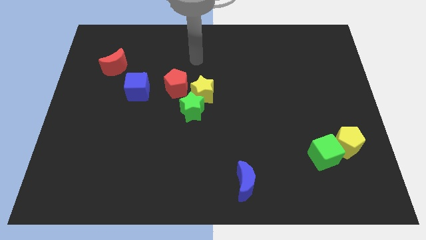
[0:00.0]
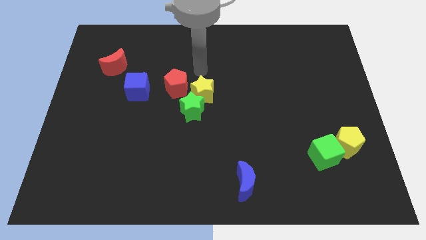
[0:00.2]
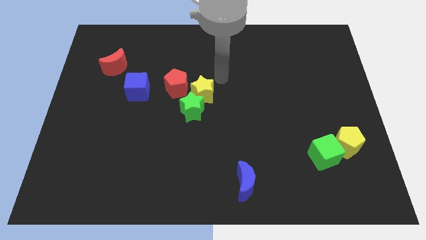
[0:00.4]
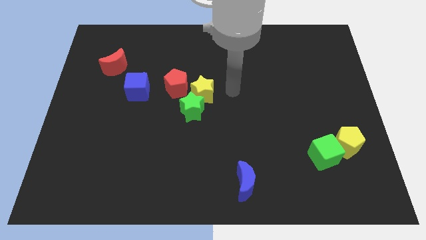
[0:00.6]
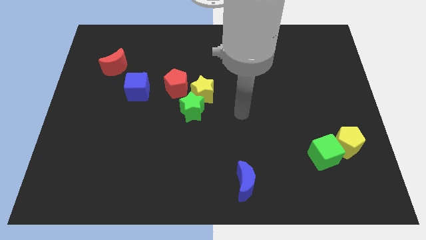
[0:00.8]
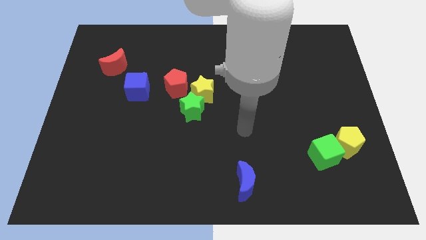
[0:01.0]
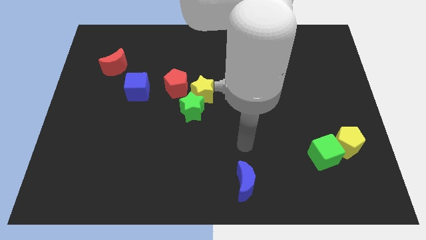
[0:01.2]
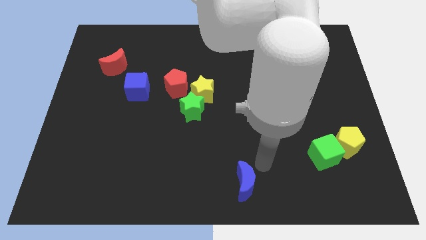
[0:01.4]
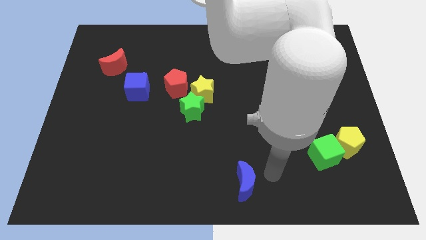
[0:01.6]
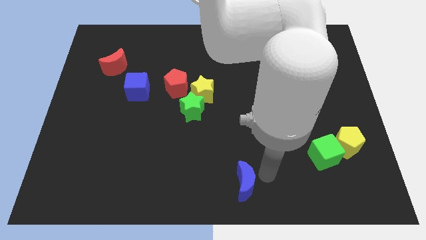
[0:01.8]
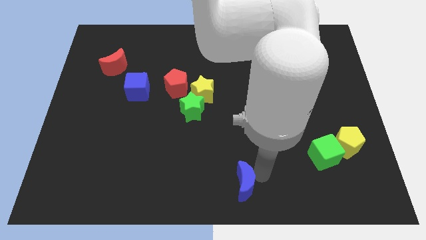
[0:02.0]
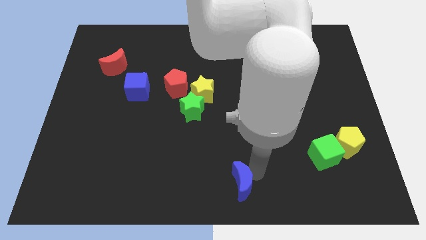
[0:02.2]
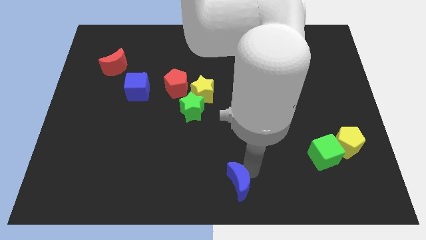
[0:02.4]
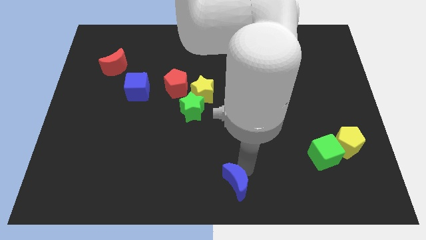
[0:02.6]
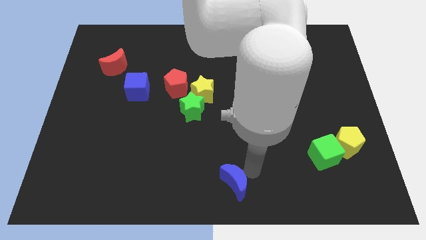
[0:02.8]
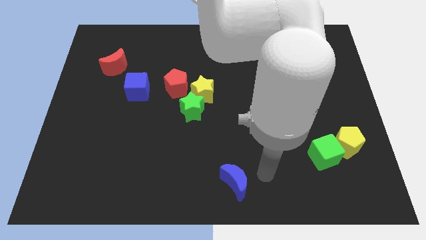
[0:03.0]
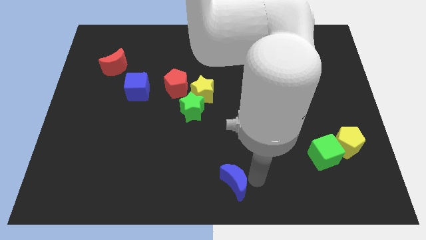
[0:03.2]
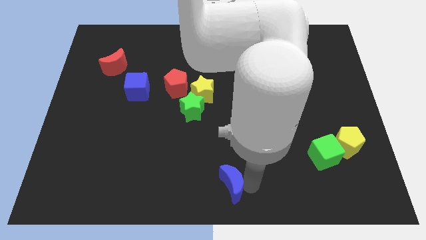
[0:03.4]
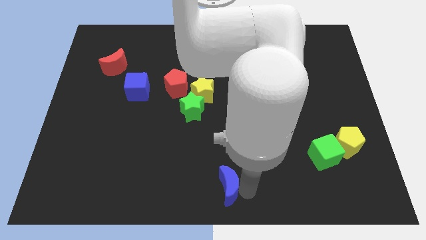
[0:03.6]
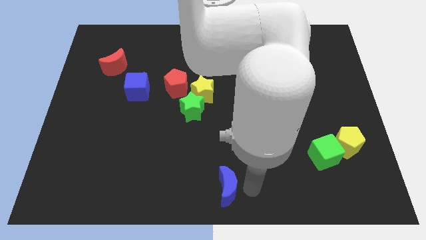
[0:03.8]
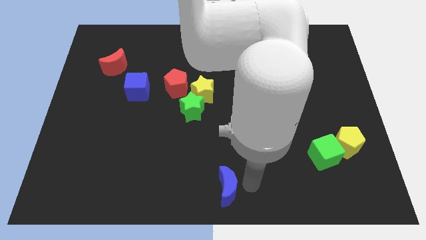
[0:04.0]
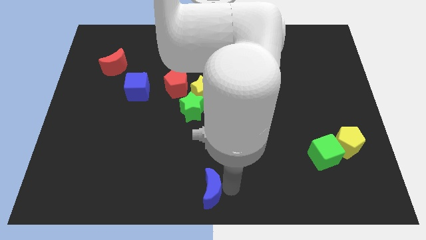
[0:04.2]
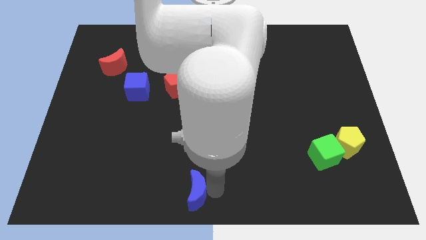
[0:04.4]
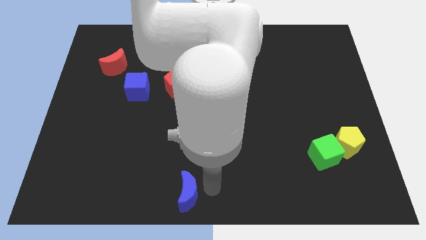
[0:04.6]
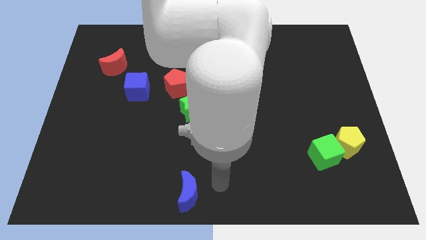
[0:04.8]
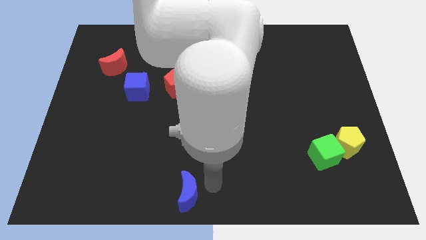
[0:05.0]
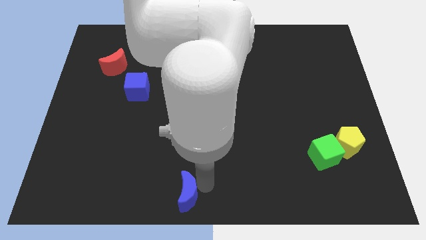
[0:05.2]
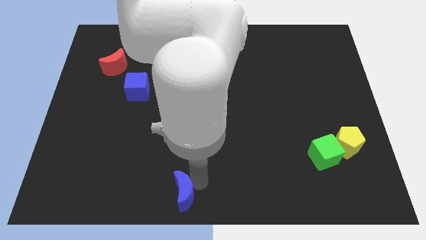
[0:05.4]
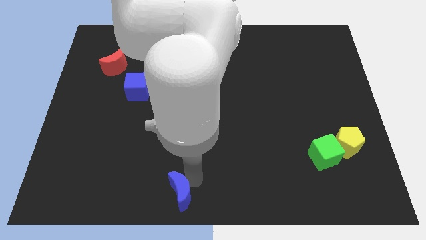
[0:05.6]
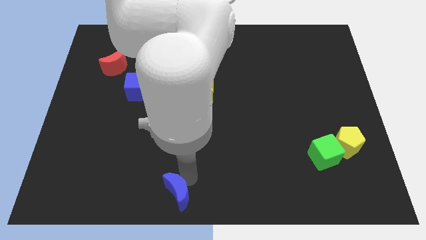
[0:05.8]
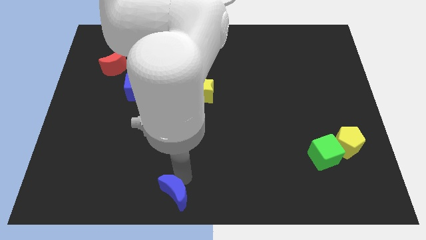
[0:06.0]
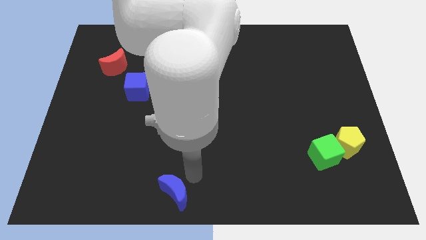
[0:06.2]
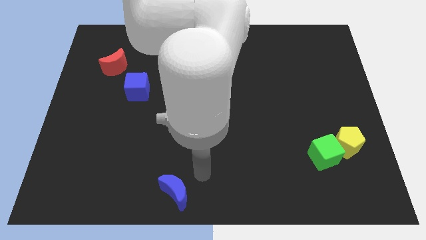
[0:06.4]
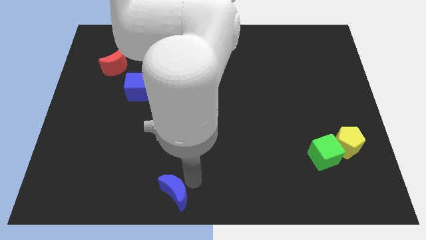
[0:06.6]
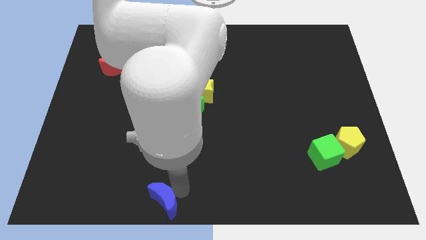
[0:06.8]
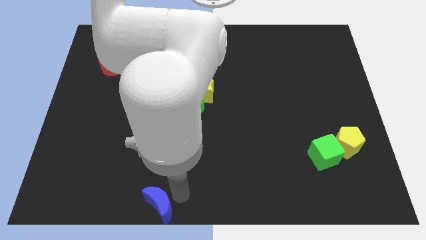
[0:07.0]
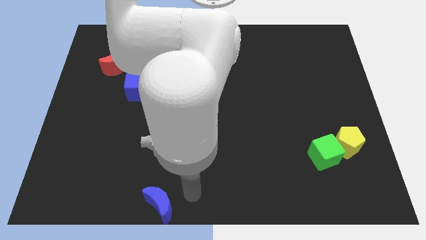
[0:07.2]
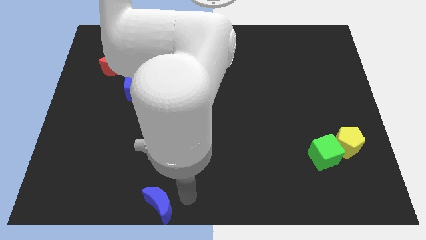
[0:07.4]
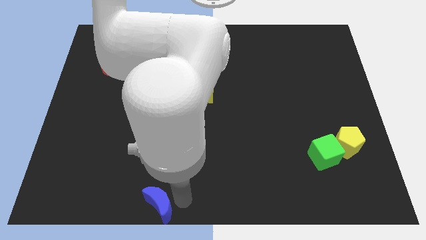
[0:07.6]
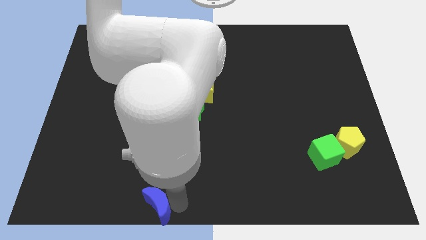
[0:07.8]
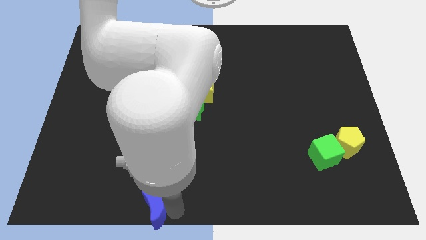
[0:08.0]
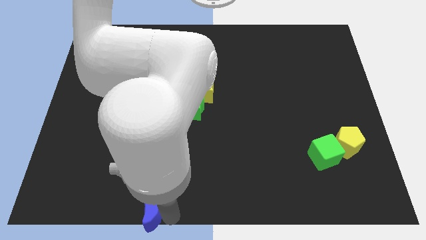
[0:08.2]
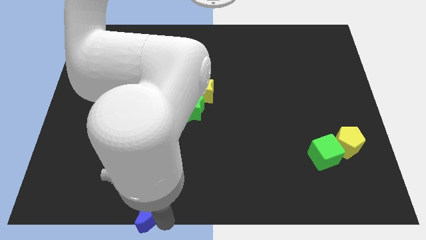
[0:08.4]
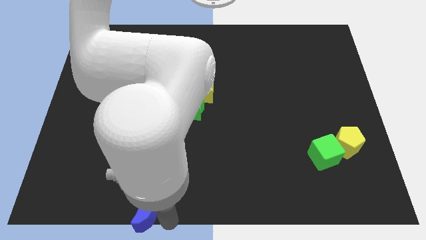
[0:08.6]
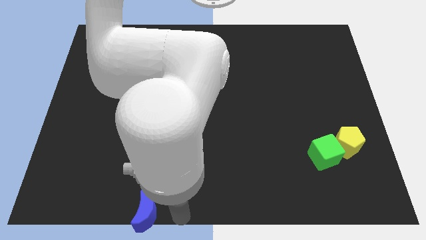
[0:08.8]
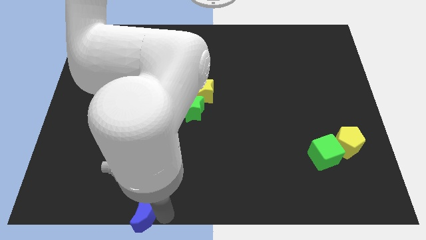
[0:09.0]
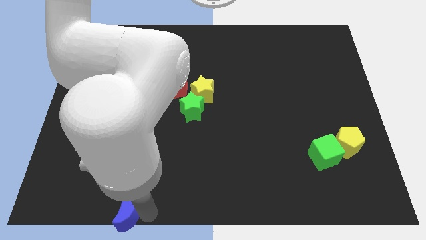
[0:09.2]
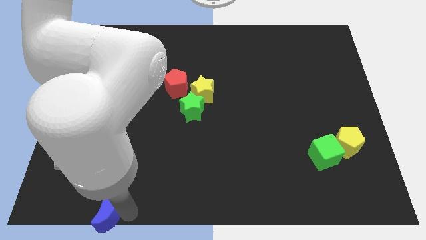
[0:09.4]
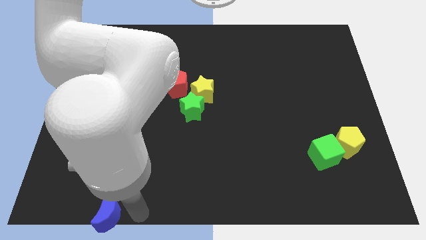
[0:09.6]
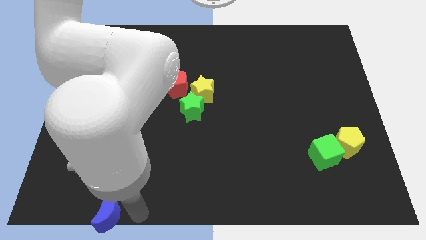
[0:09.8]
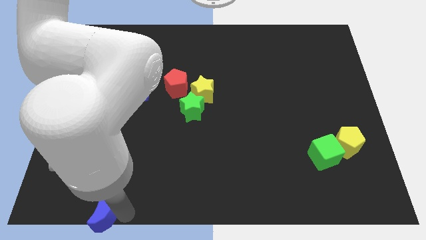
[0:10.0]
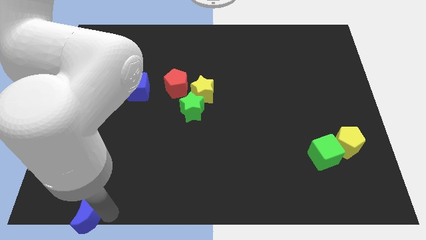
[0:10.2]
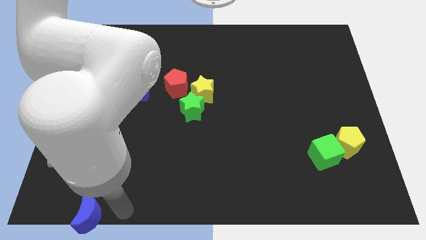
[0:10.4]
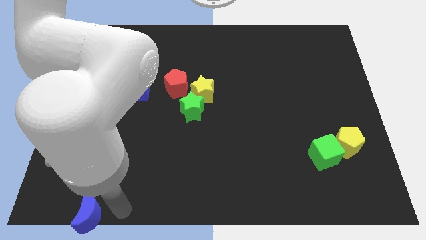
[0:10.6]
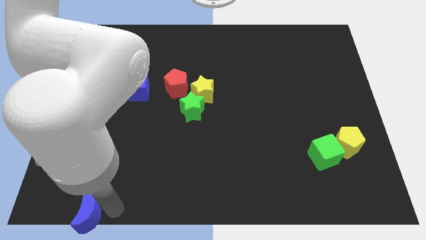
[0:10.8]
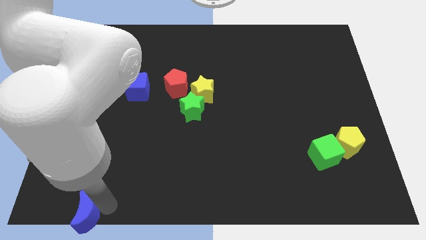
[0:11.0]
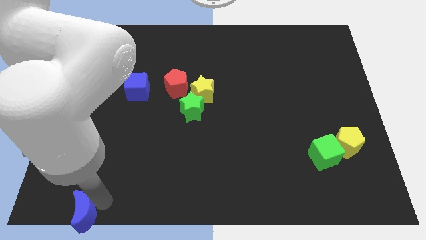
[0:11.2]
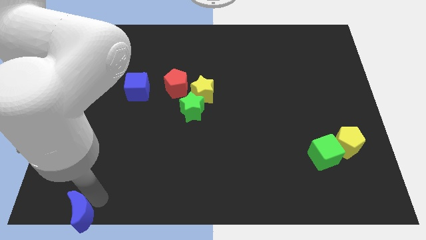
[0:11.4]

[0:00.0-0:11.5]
push the blue moon to the bottom left

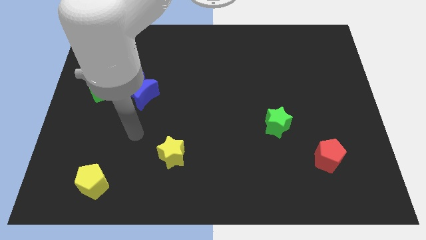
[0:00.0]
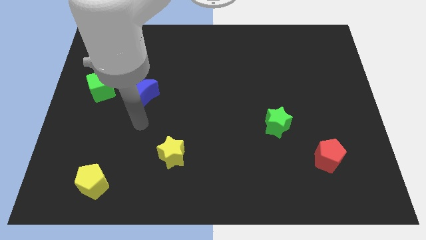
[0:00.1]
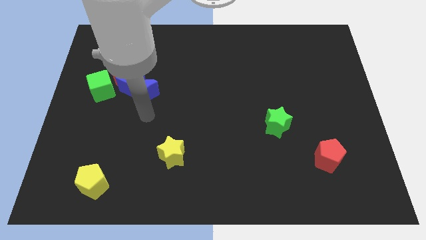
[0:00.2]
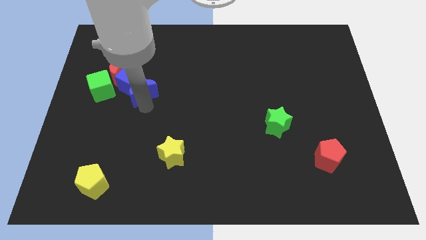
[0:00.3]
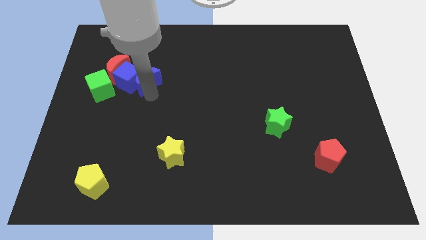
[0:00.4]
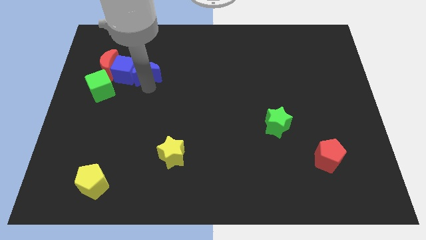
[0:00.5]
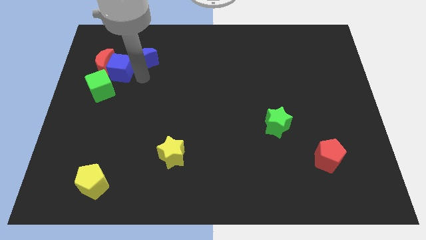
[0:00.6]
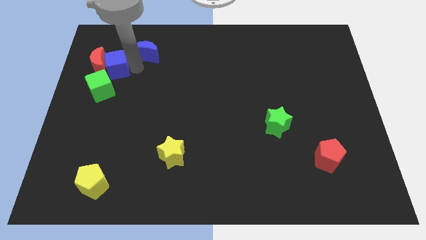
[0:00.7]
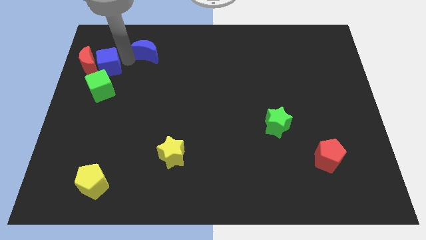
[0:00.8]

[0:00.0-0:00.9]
push the red moon to the center left

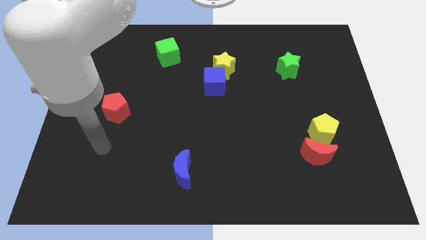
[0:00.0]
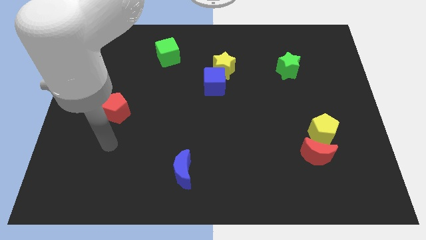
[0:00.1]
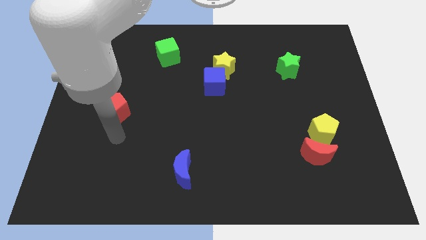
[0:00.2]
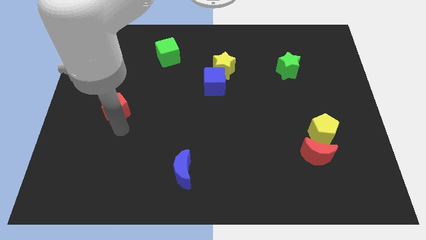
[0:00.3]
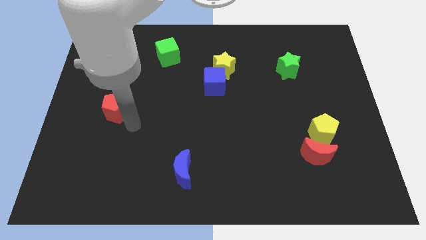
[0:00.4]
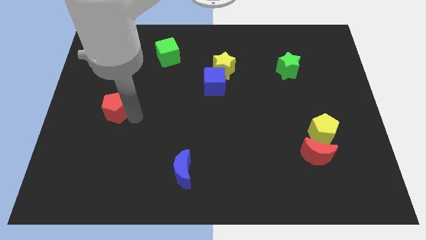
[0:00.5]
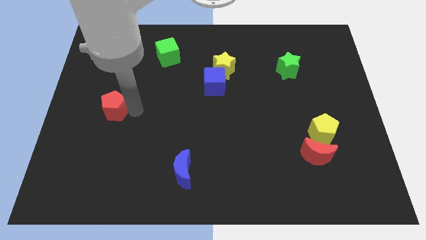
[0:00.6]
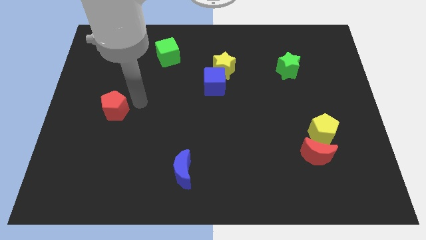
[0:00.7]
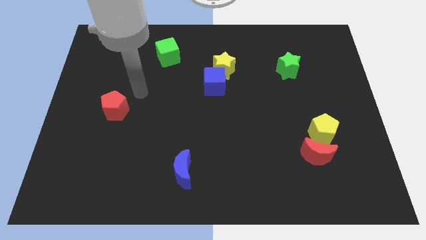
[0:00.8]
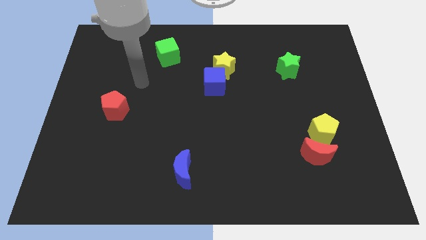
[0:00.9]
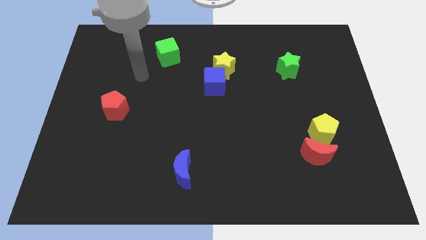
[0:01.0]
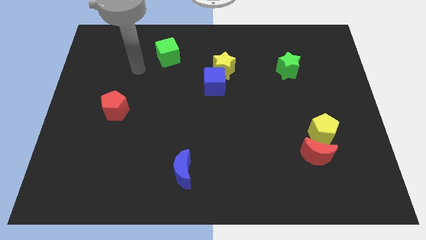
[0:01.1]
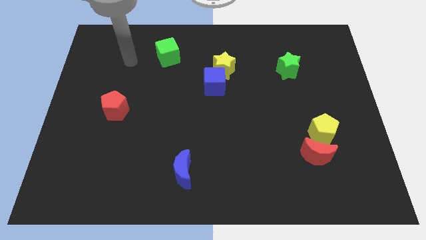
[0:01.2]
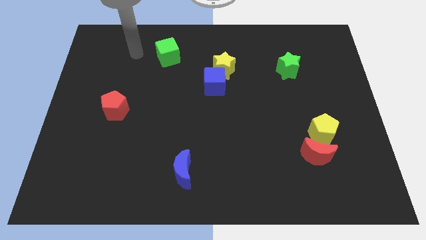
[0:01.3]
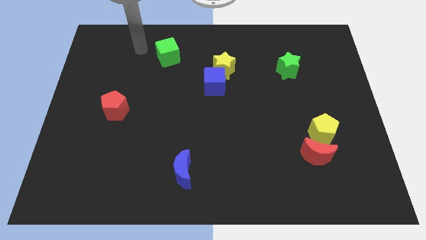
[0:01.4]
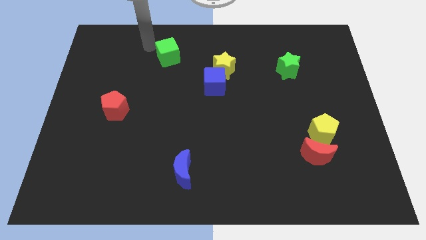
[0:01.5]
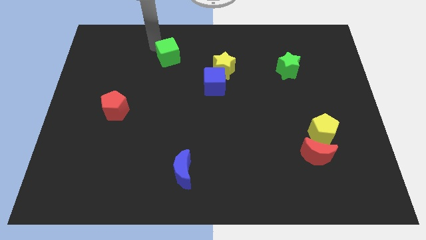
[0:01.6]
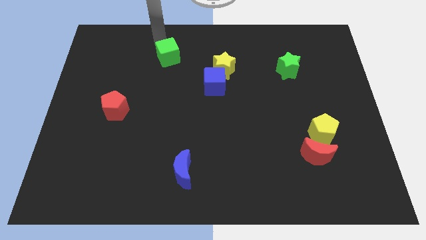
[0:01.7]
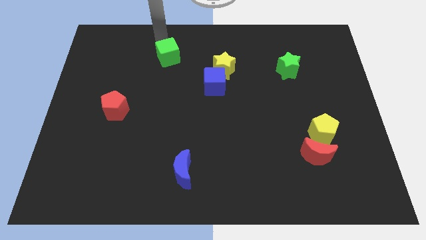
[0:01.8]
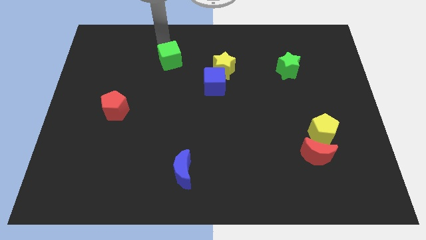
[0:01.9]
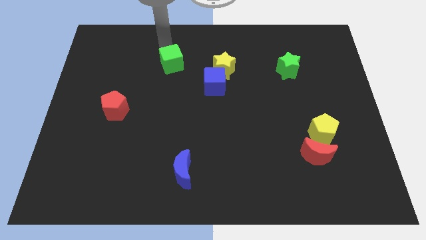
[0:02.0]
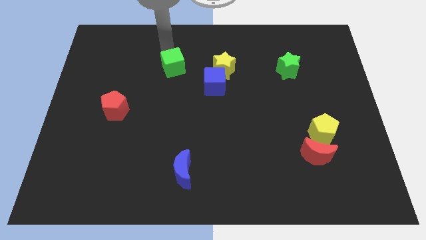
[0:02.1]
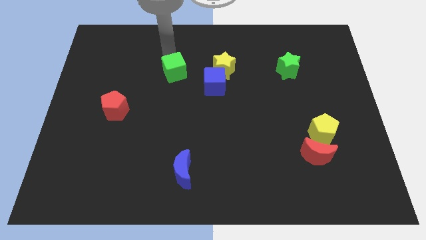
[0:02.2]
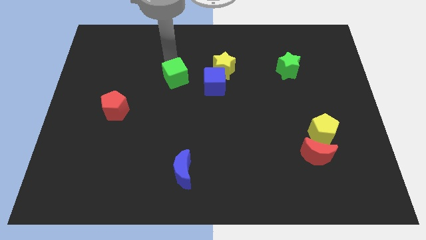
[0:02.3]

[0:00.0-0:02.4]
push the green cube to the center
